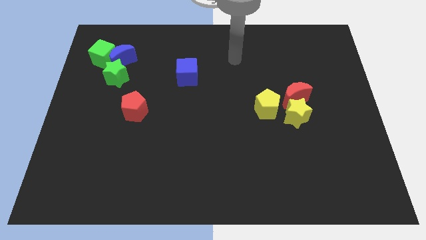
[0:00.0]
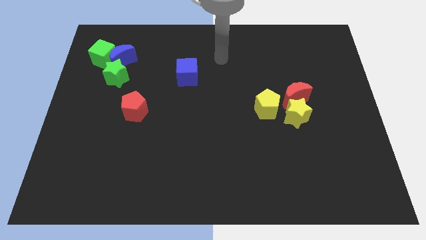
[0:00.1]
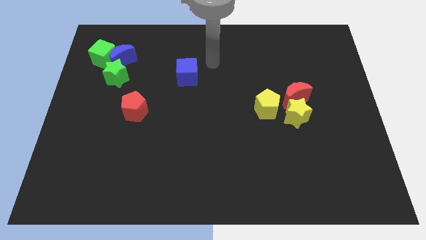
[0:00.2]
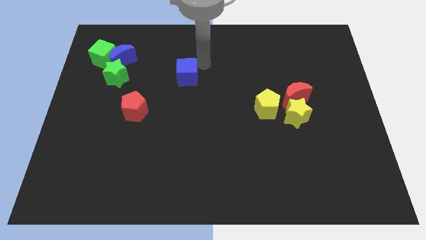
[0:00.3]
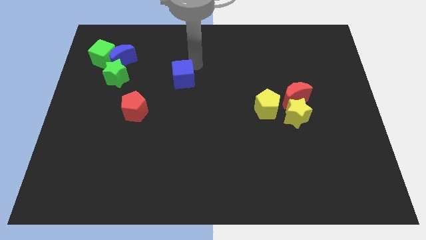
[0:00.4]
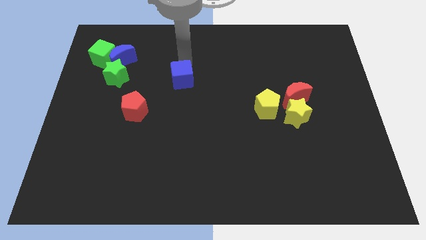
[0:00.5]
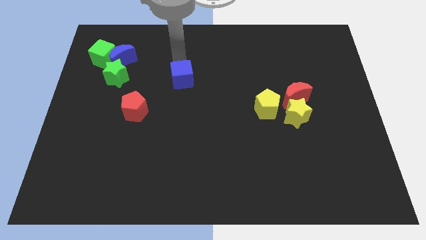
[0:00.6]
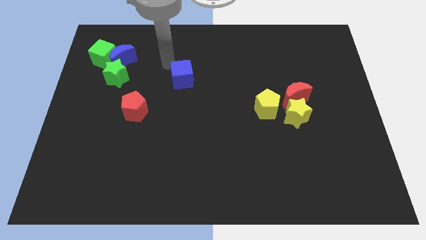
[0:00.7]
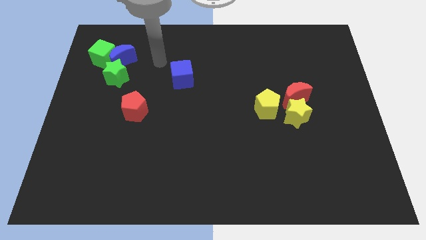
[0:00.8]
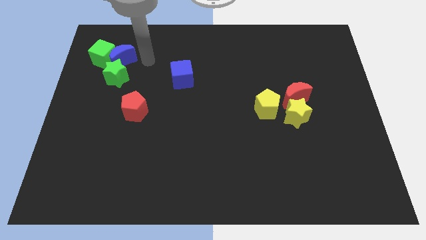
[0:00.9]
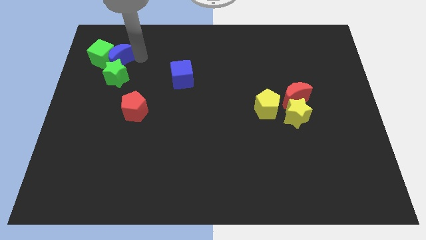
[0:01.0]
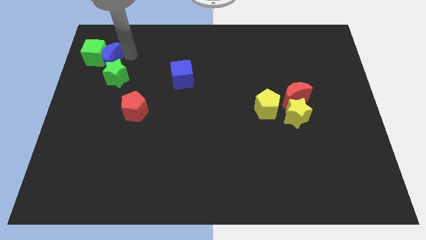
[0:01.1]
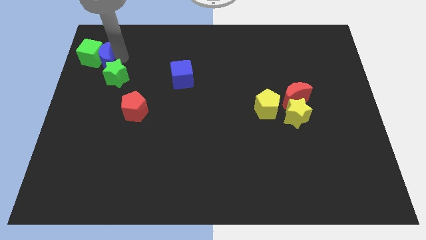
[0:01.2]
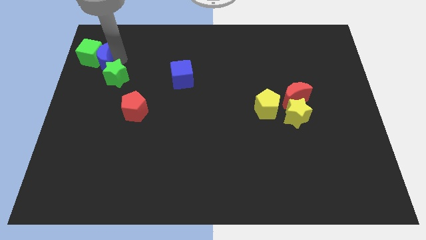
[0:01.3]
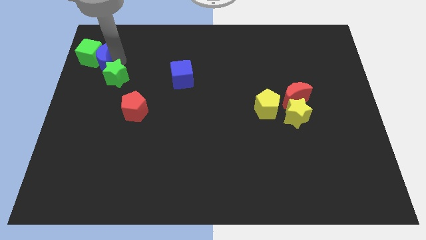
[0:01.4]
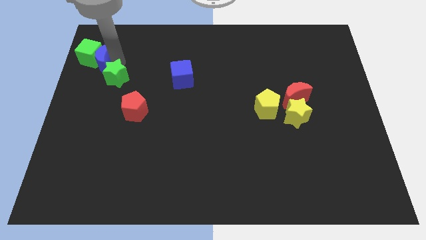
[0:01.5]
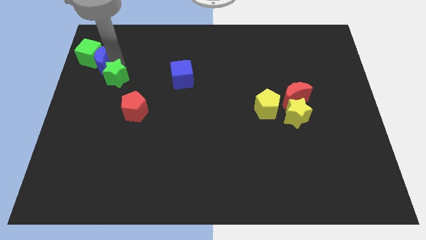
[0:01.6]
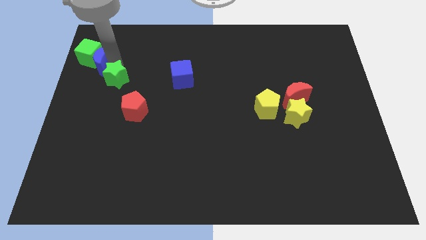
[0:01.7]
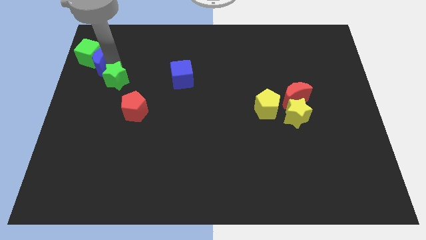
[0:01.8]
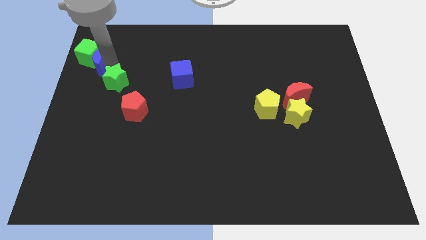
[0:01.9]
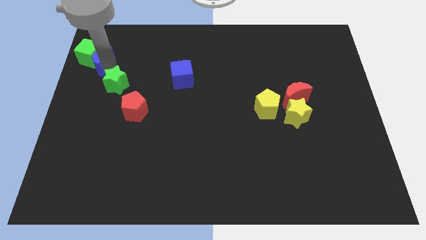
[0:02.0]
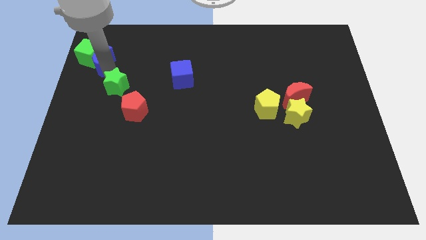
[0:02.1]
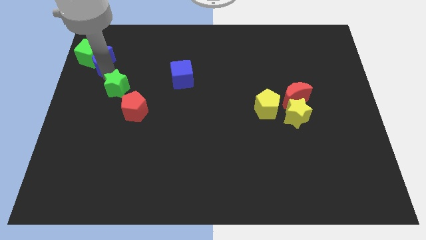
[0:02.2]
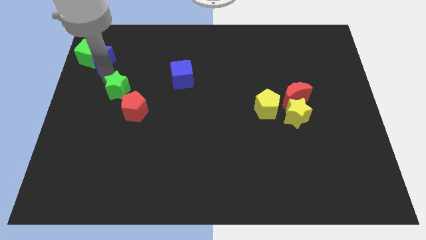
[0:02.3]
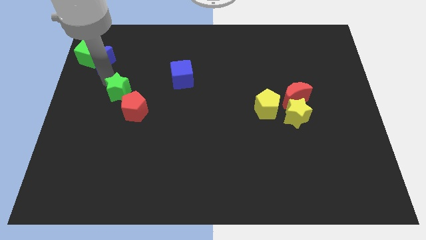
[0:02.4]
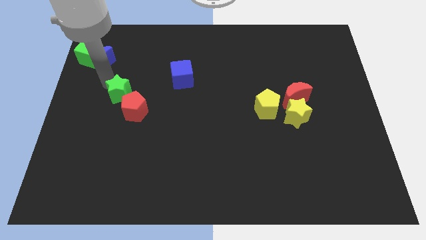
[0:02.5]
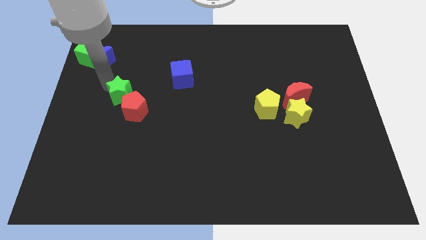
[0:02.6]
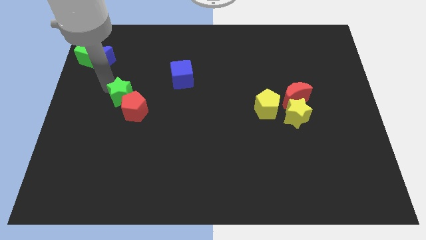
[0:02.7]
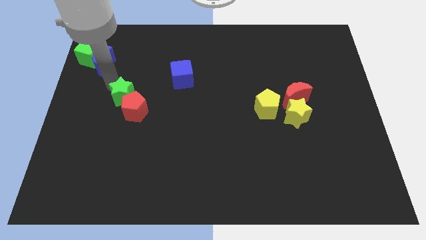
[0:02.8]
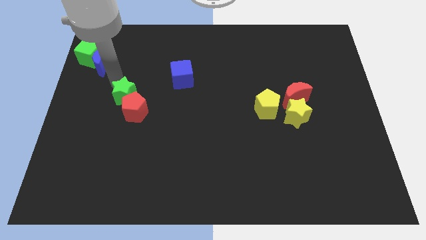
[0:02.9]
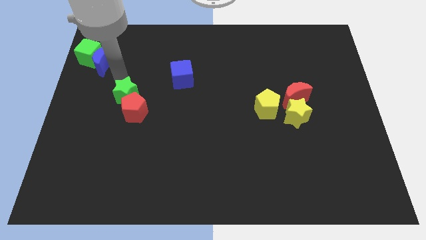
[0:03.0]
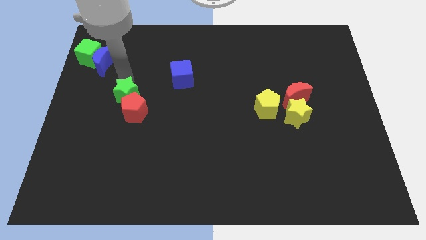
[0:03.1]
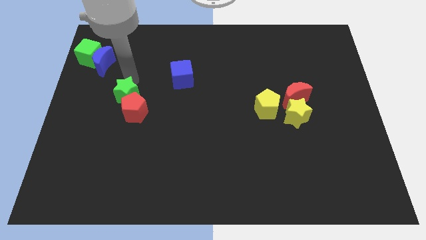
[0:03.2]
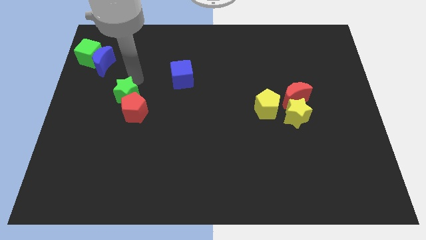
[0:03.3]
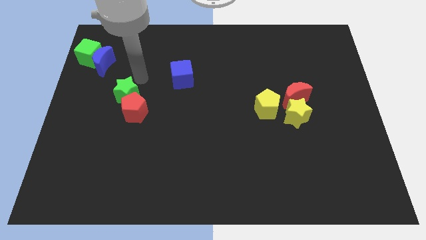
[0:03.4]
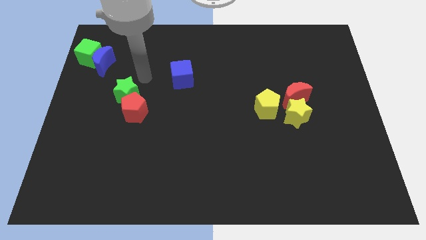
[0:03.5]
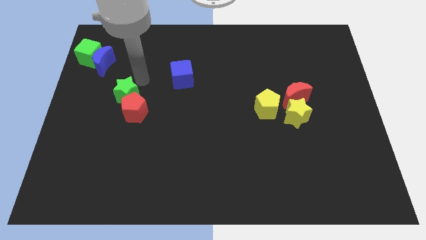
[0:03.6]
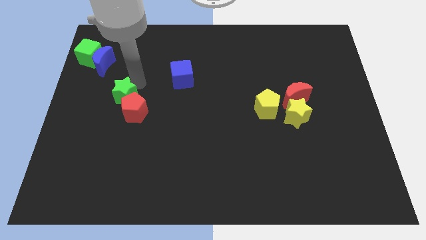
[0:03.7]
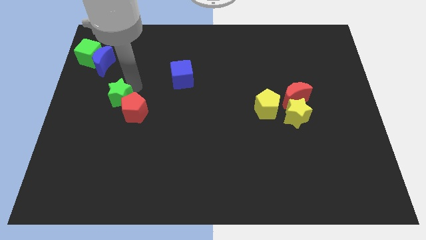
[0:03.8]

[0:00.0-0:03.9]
move the green star slightly downwards

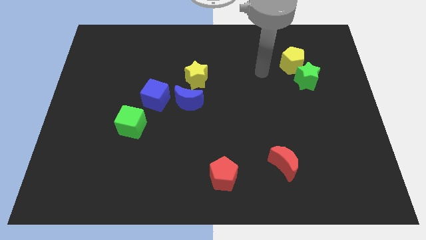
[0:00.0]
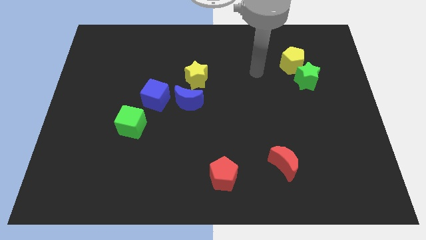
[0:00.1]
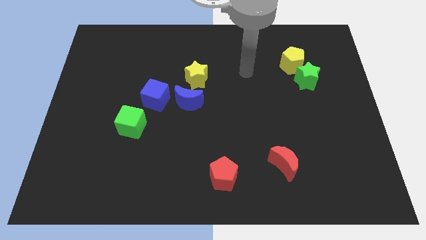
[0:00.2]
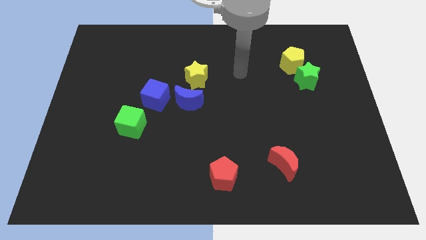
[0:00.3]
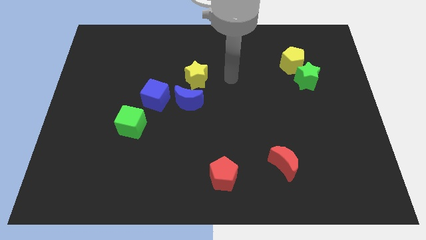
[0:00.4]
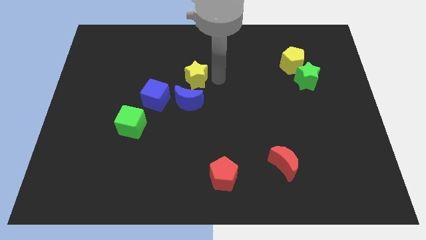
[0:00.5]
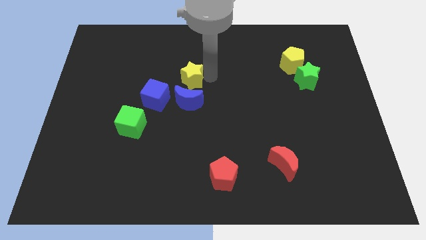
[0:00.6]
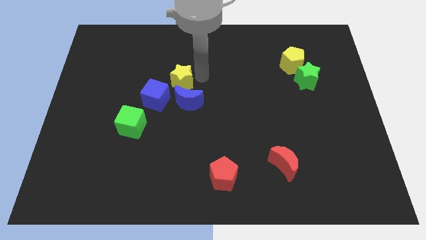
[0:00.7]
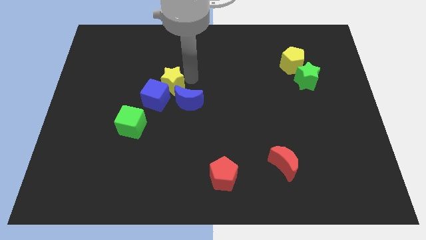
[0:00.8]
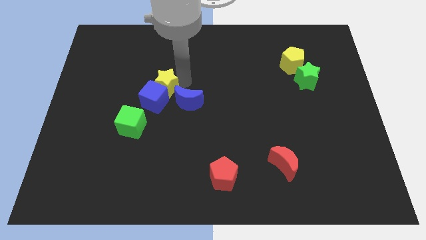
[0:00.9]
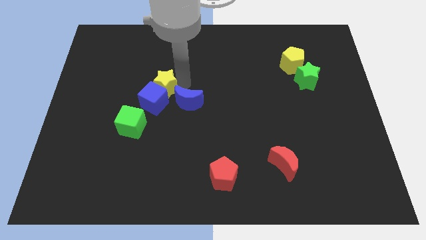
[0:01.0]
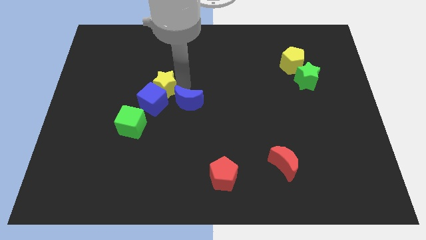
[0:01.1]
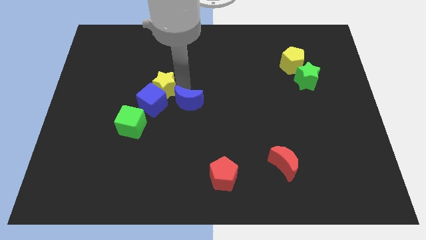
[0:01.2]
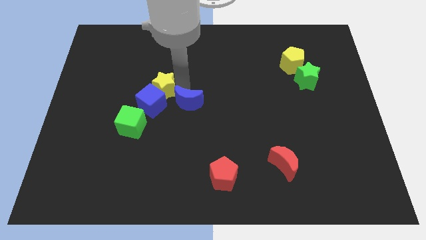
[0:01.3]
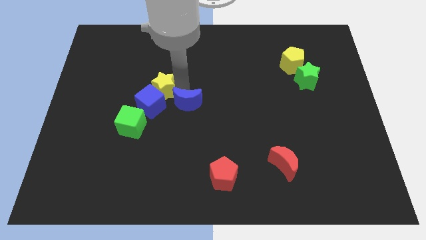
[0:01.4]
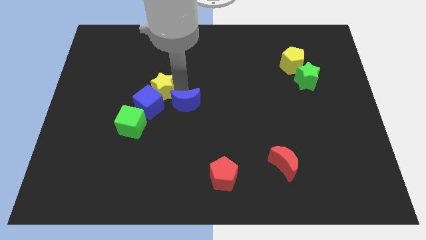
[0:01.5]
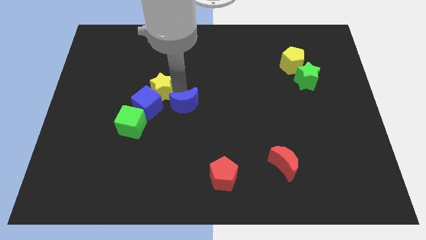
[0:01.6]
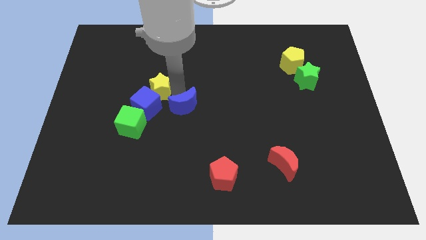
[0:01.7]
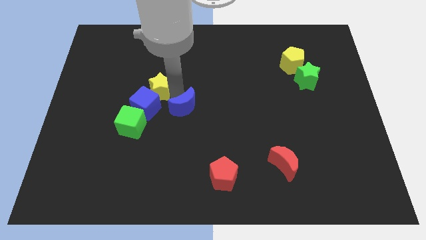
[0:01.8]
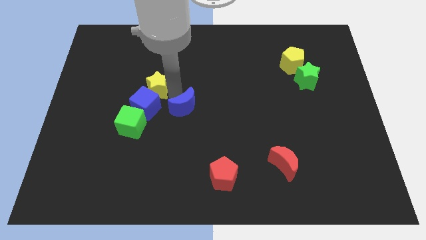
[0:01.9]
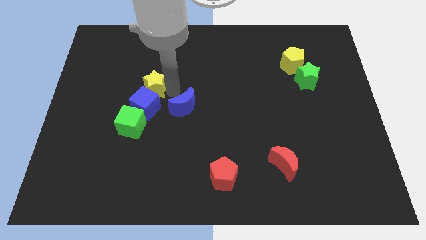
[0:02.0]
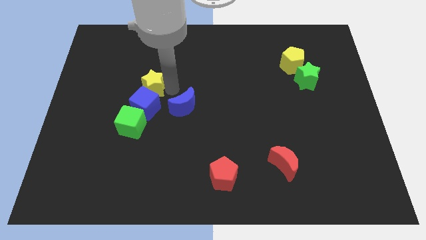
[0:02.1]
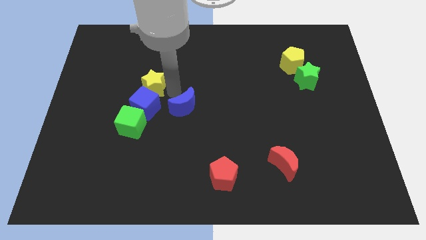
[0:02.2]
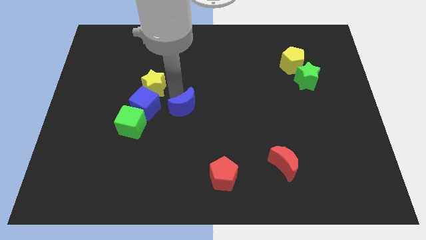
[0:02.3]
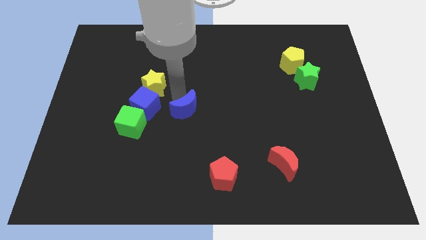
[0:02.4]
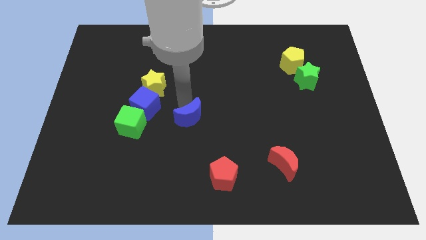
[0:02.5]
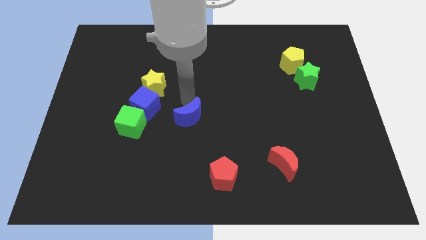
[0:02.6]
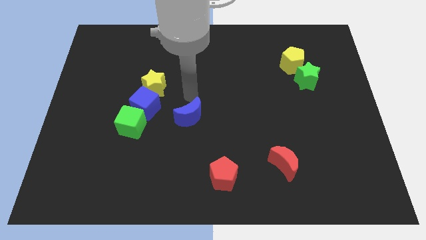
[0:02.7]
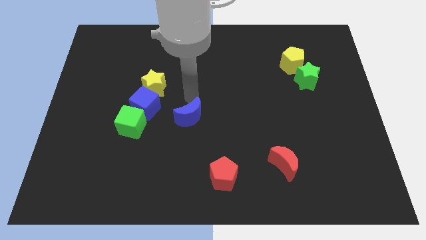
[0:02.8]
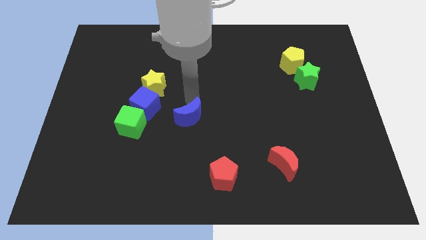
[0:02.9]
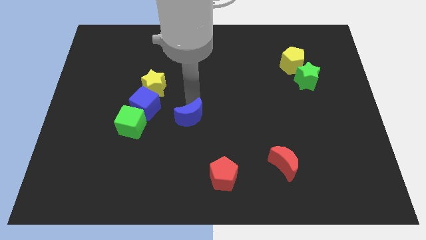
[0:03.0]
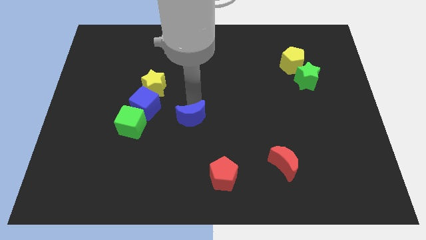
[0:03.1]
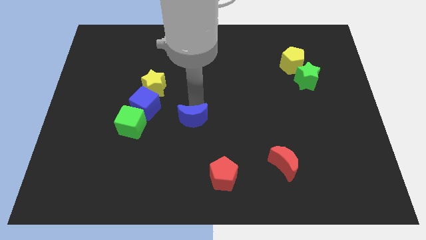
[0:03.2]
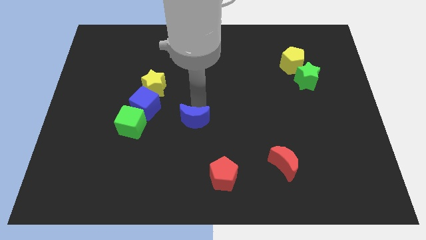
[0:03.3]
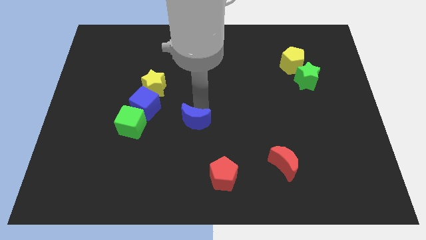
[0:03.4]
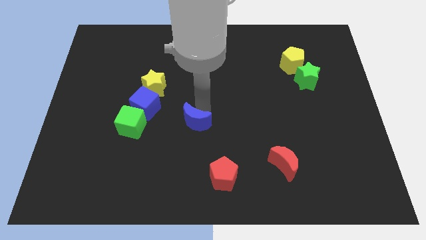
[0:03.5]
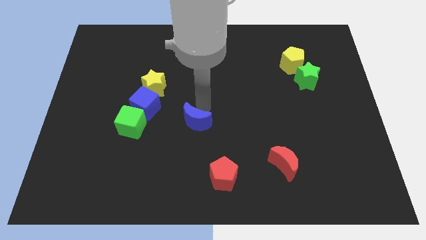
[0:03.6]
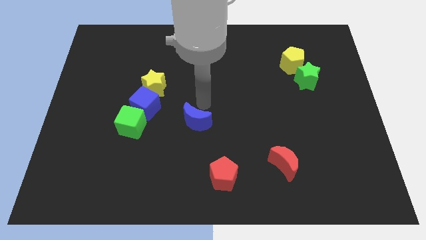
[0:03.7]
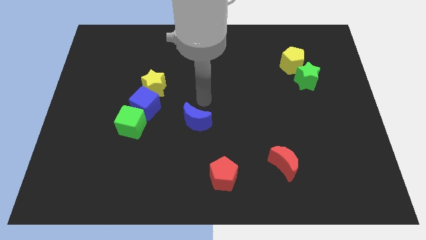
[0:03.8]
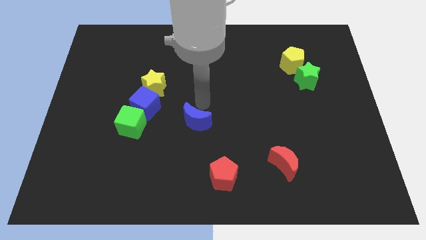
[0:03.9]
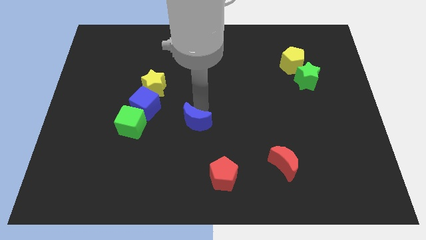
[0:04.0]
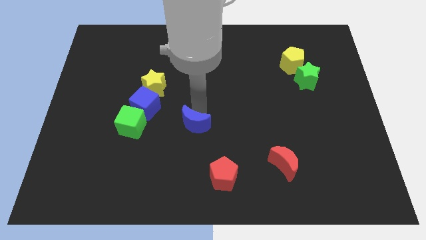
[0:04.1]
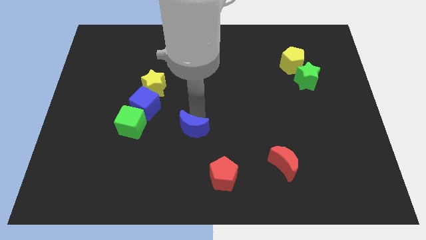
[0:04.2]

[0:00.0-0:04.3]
slightly push the blue moon down
